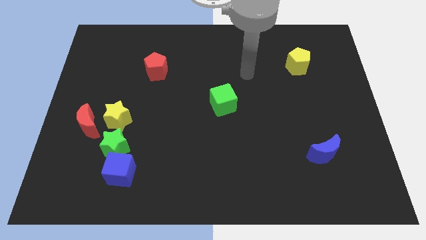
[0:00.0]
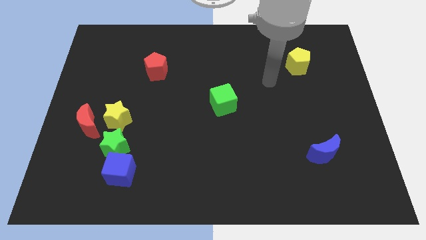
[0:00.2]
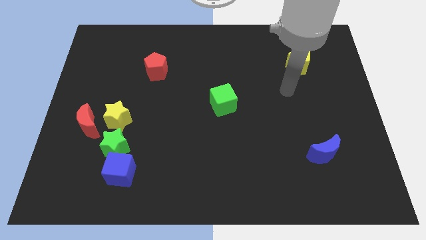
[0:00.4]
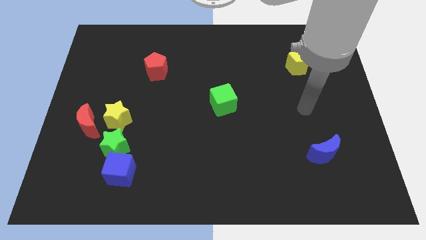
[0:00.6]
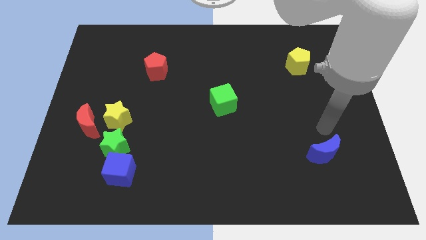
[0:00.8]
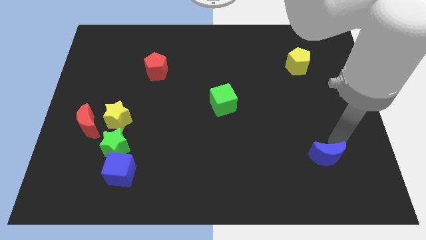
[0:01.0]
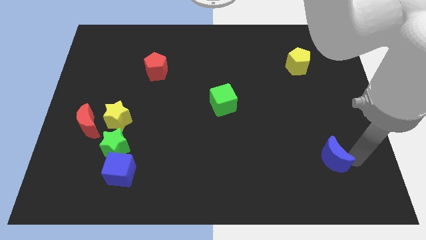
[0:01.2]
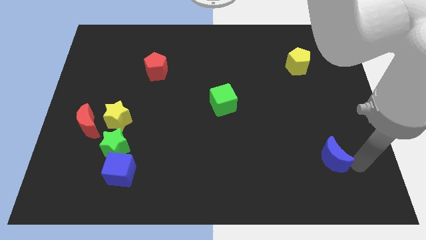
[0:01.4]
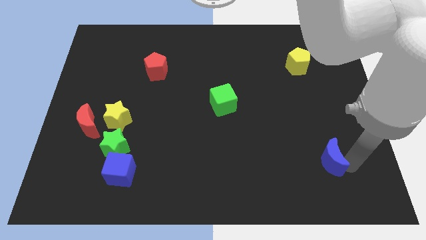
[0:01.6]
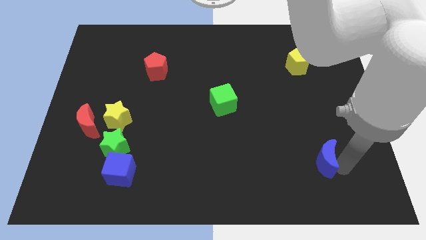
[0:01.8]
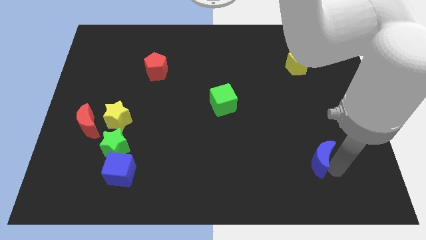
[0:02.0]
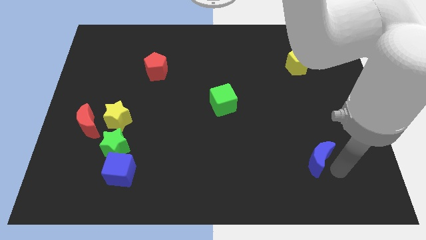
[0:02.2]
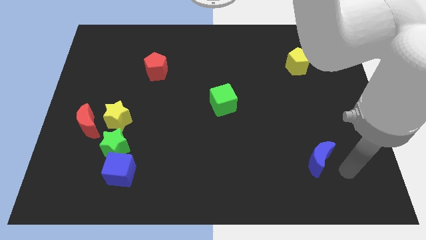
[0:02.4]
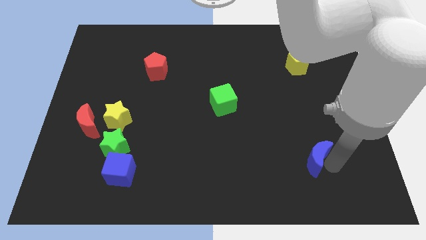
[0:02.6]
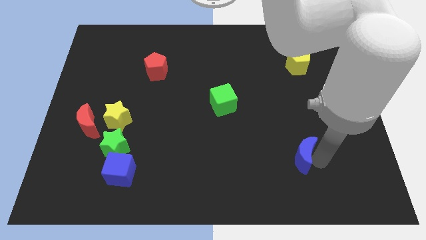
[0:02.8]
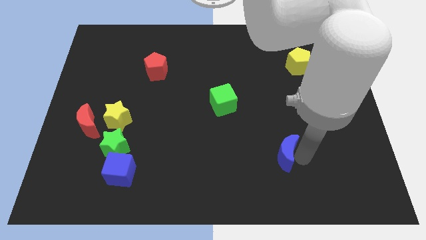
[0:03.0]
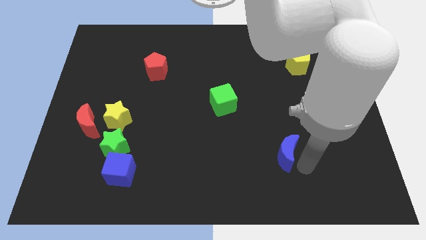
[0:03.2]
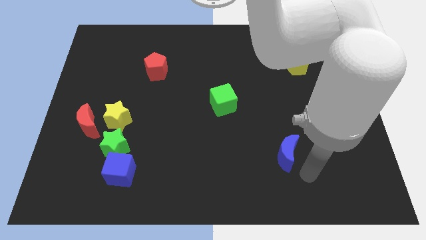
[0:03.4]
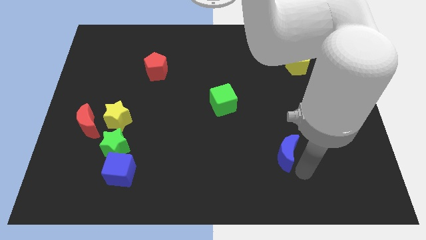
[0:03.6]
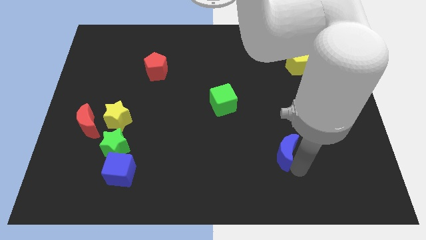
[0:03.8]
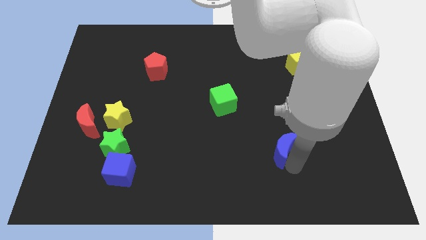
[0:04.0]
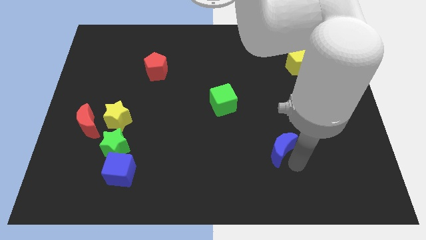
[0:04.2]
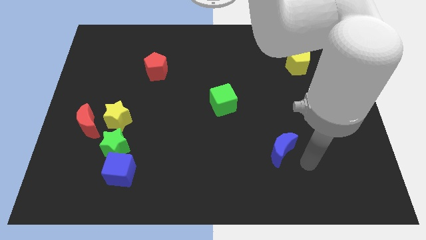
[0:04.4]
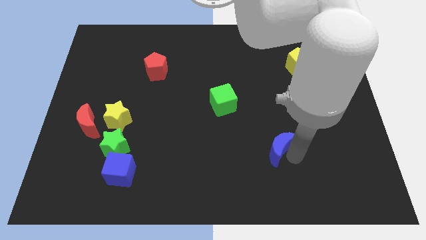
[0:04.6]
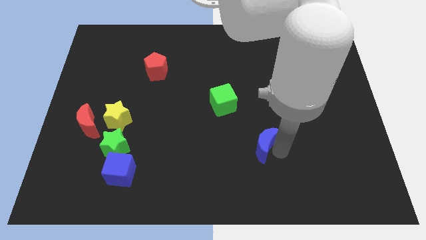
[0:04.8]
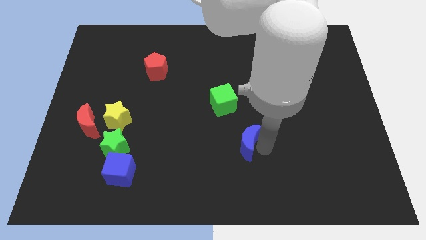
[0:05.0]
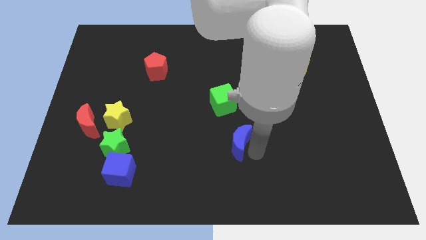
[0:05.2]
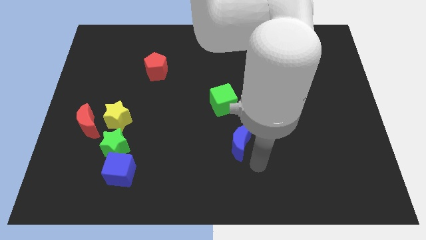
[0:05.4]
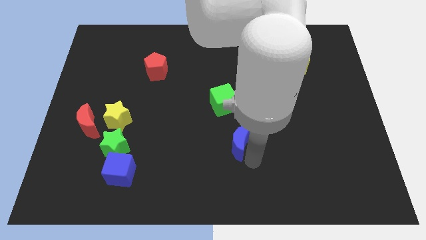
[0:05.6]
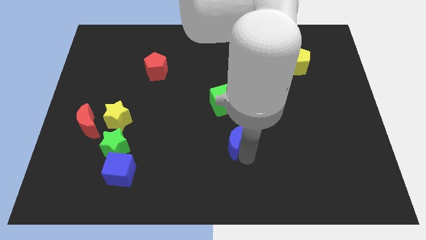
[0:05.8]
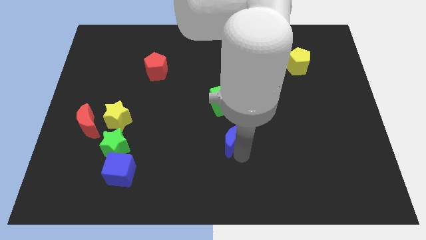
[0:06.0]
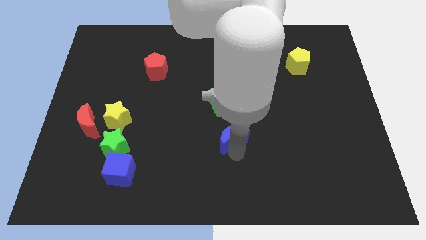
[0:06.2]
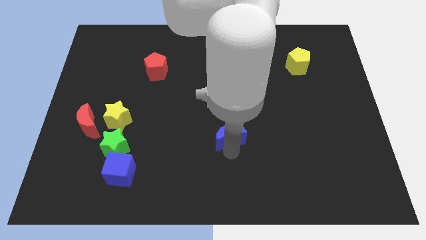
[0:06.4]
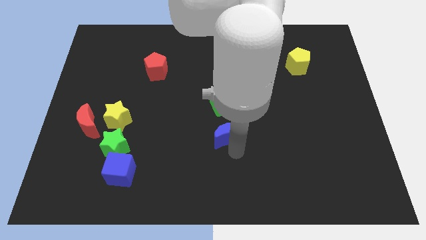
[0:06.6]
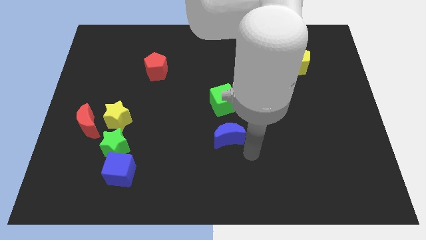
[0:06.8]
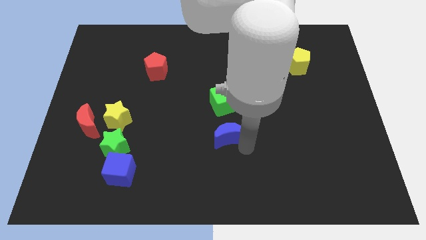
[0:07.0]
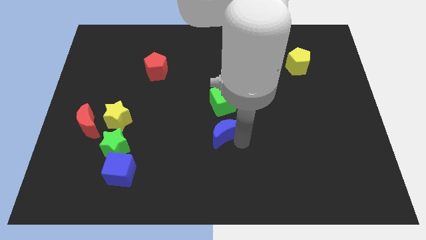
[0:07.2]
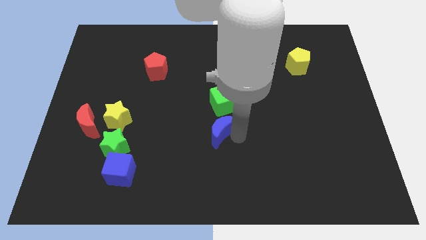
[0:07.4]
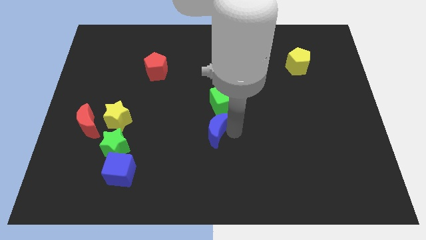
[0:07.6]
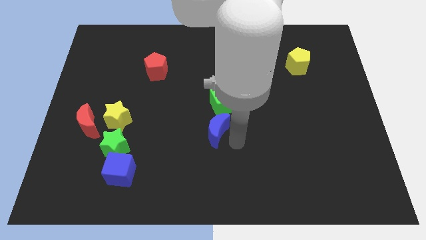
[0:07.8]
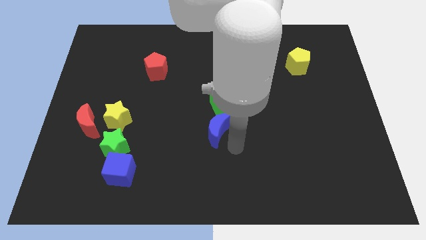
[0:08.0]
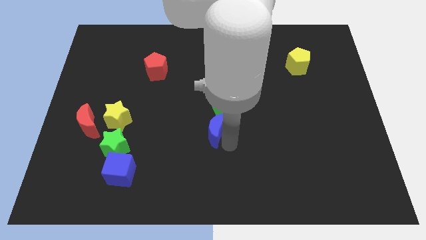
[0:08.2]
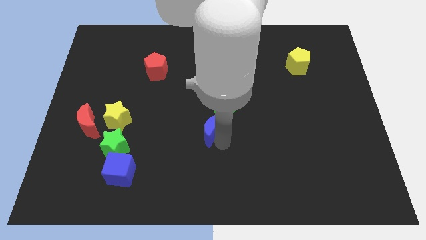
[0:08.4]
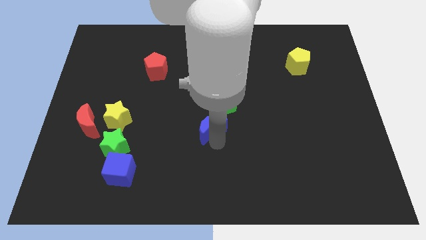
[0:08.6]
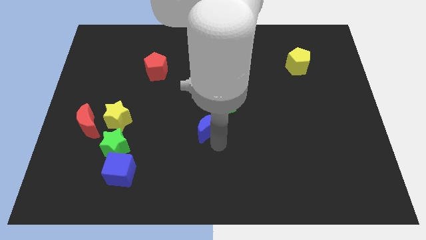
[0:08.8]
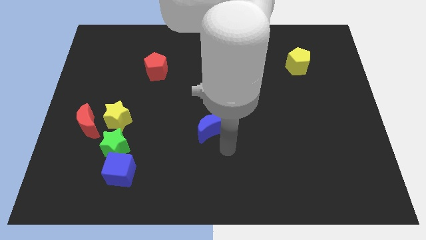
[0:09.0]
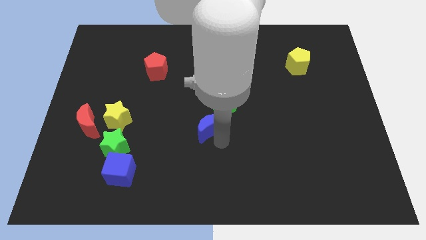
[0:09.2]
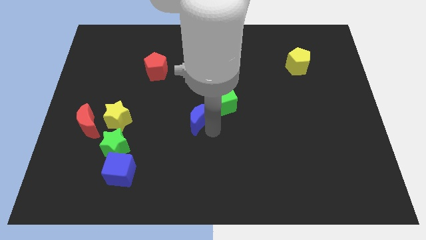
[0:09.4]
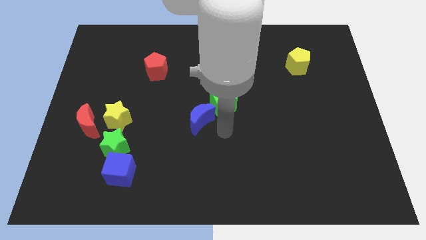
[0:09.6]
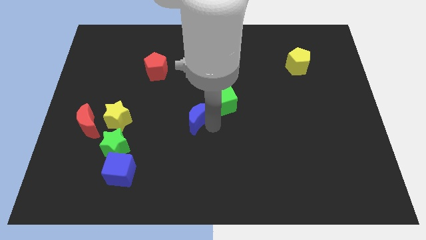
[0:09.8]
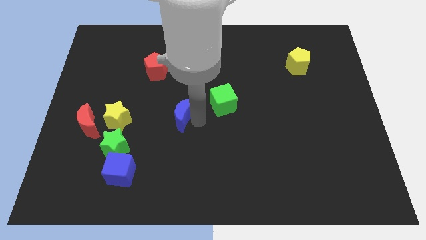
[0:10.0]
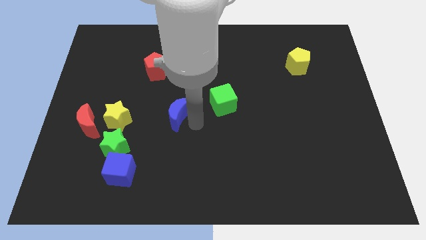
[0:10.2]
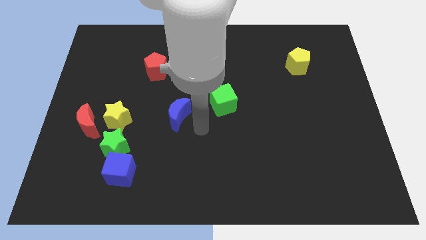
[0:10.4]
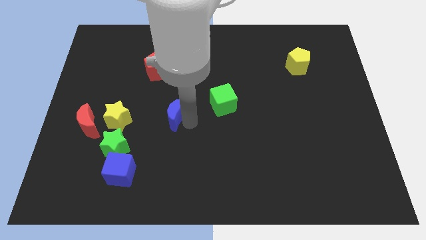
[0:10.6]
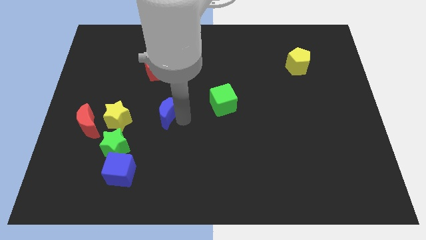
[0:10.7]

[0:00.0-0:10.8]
put the blue moon to the bottom side of the red pentagon

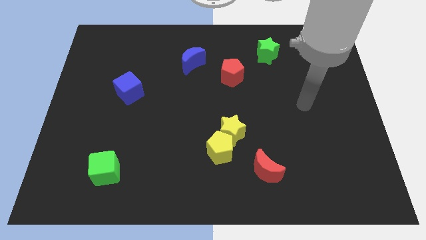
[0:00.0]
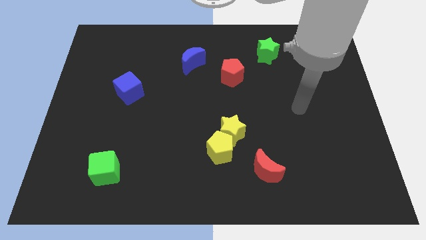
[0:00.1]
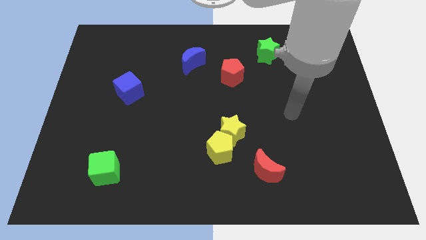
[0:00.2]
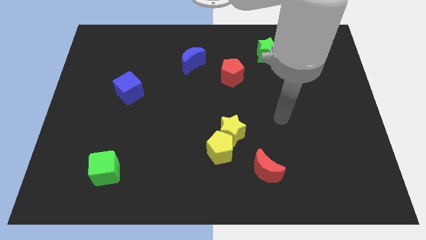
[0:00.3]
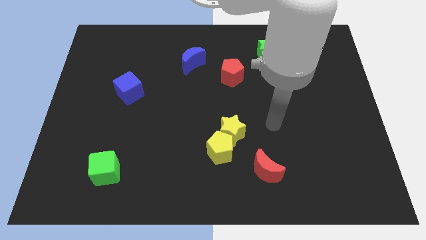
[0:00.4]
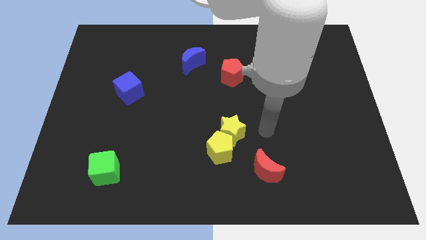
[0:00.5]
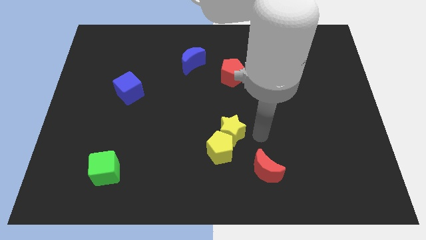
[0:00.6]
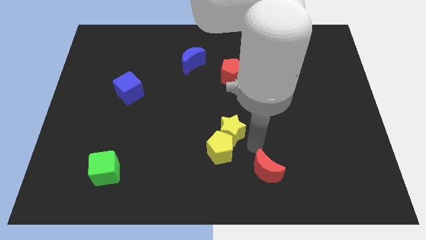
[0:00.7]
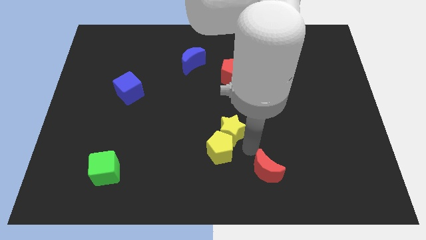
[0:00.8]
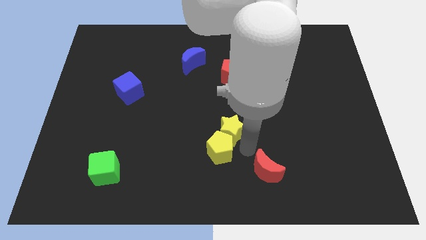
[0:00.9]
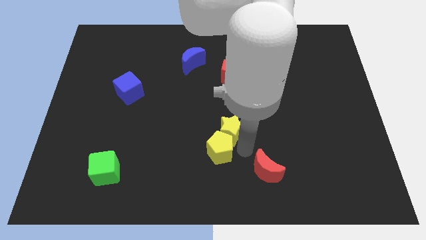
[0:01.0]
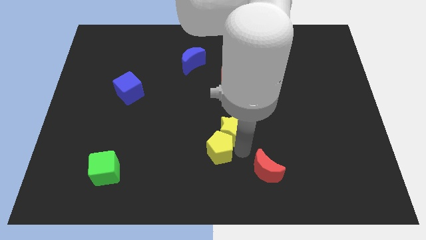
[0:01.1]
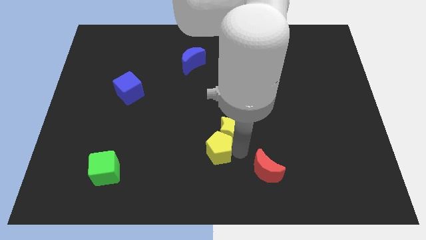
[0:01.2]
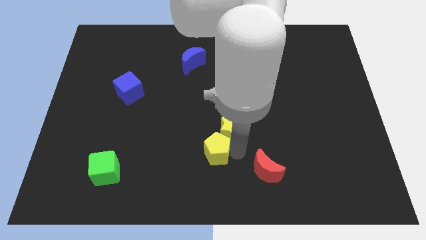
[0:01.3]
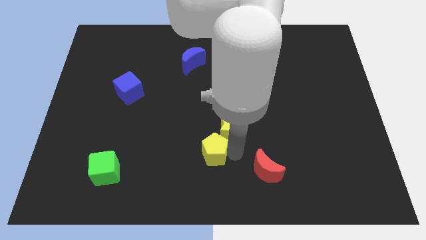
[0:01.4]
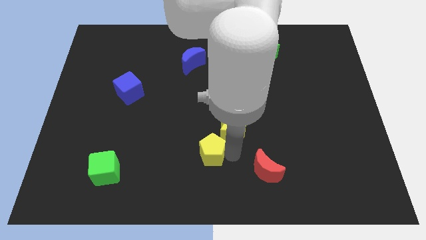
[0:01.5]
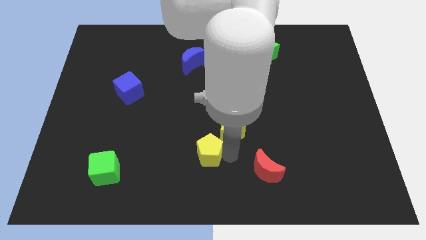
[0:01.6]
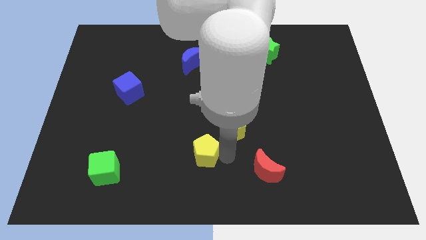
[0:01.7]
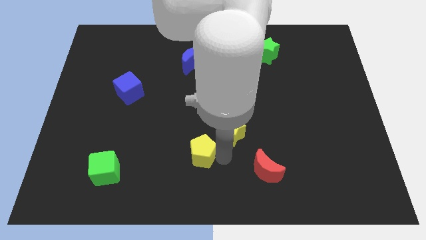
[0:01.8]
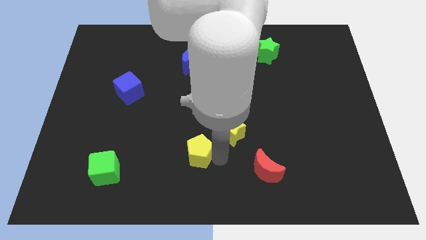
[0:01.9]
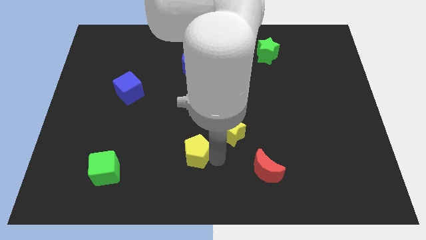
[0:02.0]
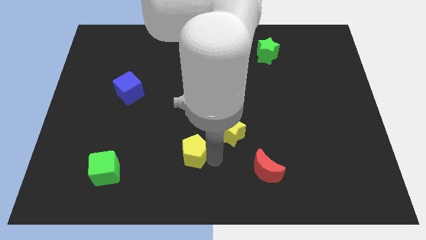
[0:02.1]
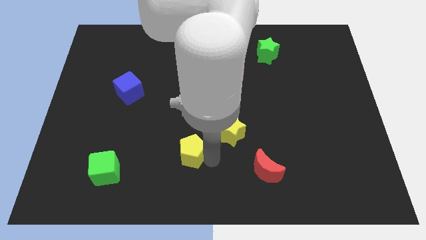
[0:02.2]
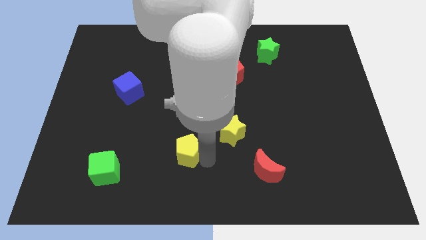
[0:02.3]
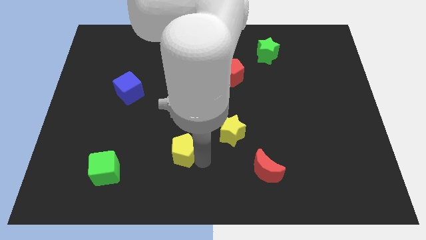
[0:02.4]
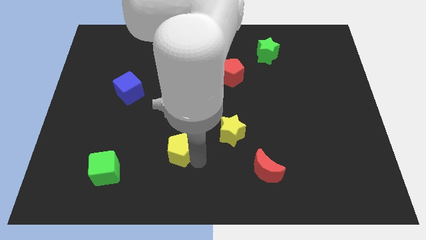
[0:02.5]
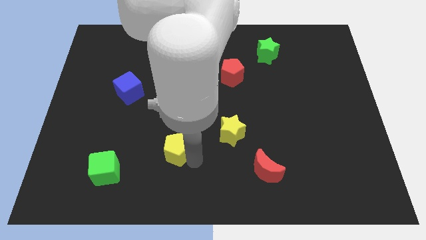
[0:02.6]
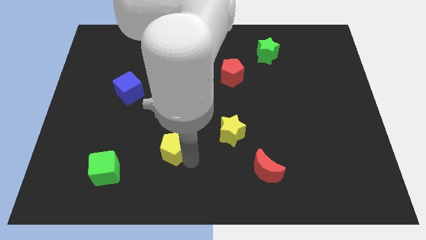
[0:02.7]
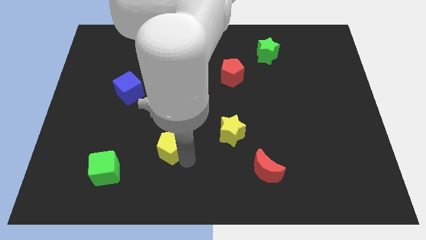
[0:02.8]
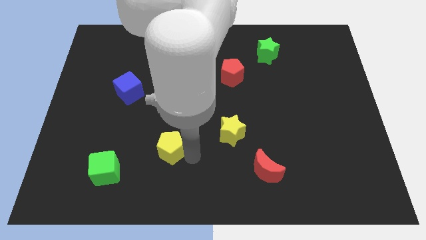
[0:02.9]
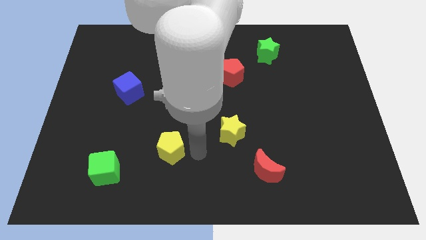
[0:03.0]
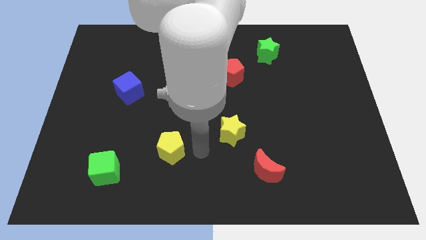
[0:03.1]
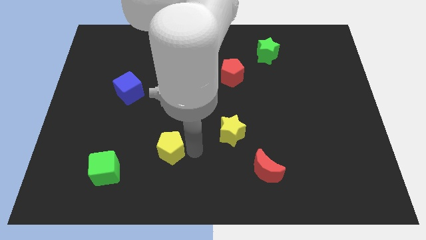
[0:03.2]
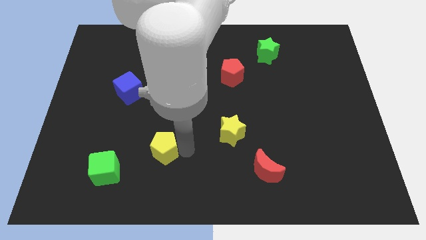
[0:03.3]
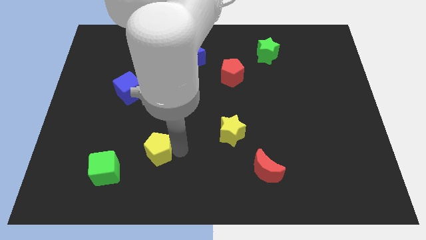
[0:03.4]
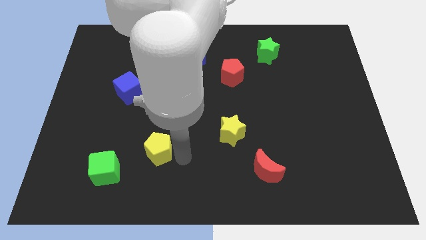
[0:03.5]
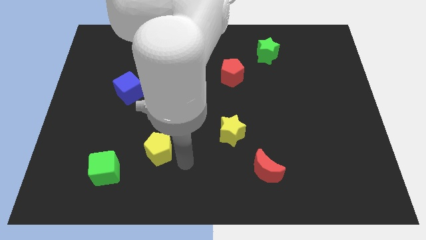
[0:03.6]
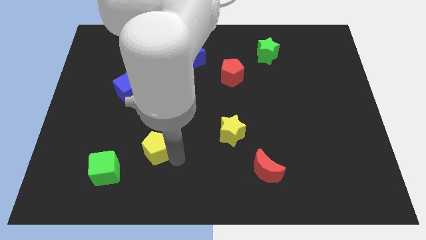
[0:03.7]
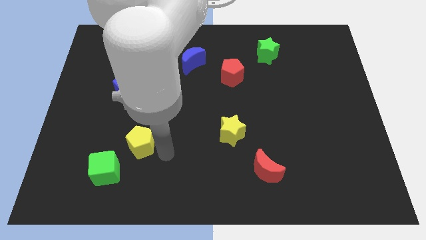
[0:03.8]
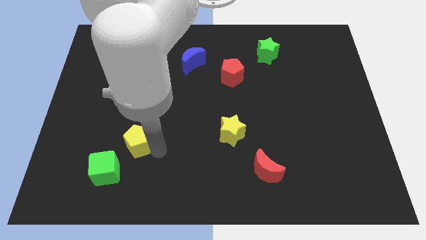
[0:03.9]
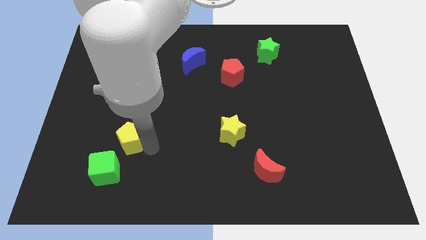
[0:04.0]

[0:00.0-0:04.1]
push the yellow pentagon to the top side of the green cube
